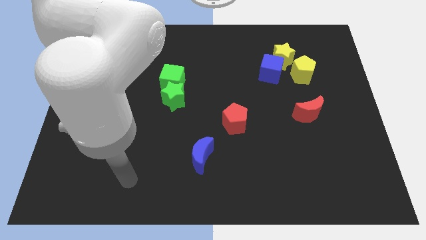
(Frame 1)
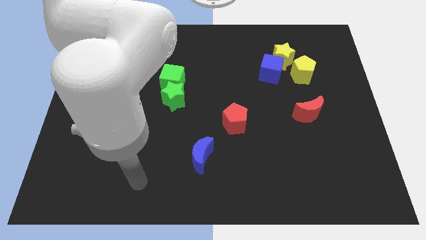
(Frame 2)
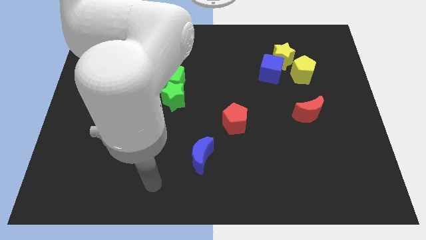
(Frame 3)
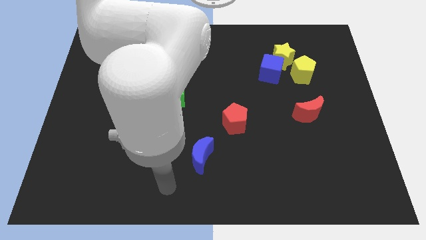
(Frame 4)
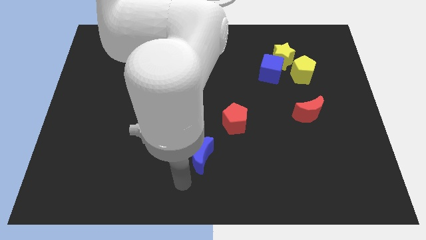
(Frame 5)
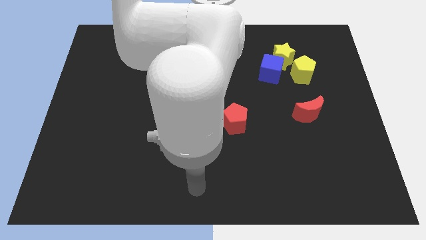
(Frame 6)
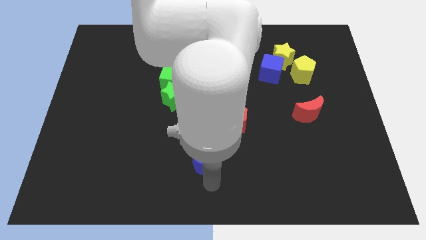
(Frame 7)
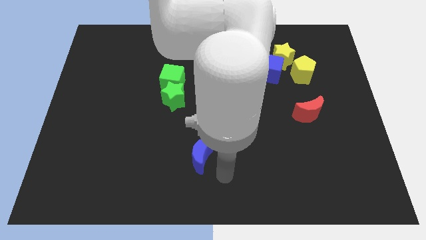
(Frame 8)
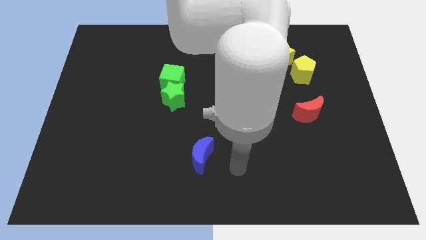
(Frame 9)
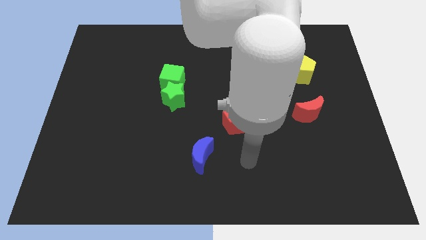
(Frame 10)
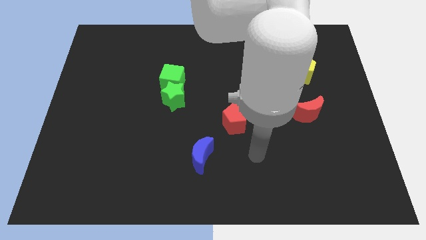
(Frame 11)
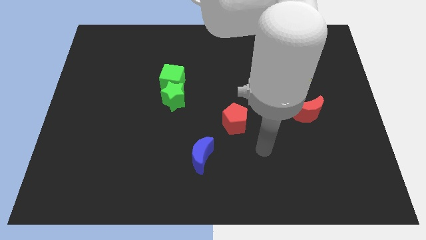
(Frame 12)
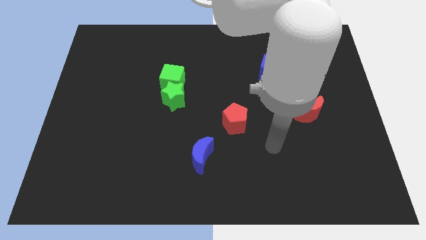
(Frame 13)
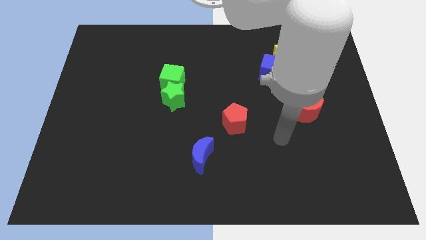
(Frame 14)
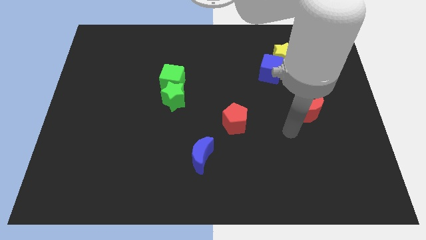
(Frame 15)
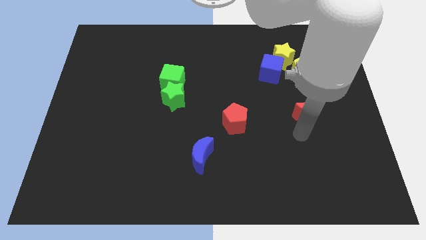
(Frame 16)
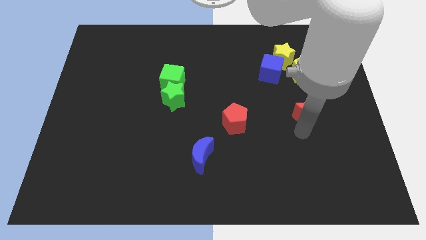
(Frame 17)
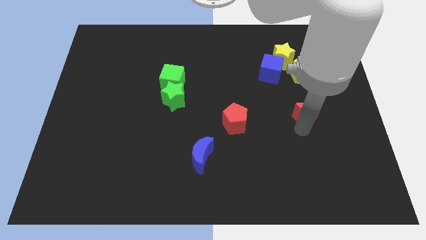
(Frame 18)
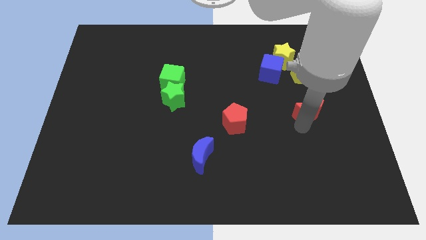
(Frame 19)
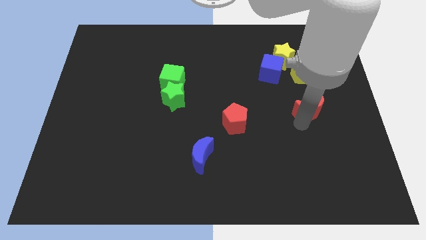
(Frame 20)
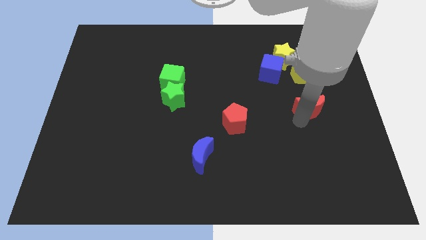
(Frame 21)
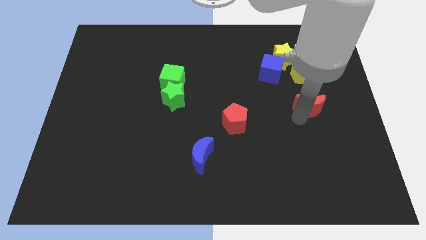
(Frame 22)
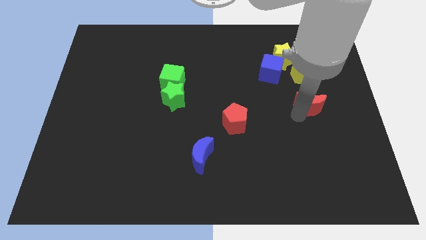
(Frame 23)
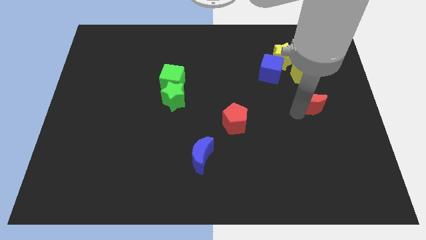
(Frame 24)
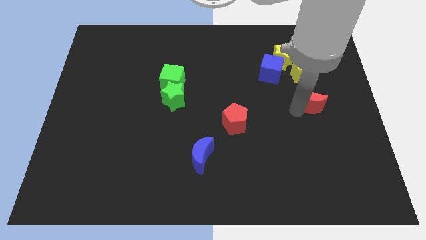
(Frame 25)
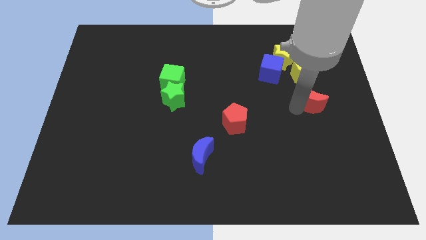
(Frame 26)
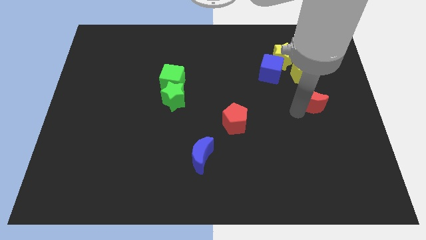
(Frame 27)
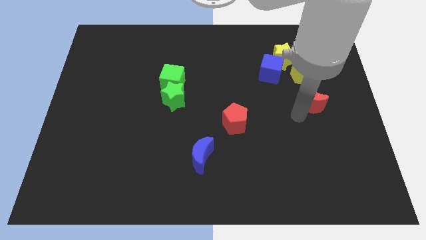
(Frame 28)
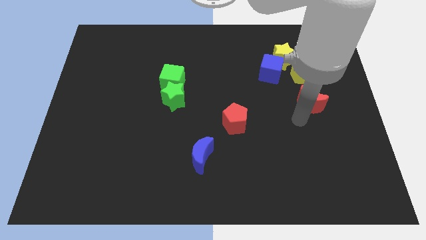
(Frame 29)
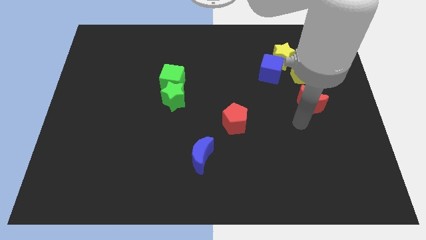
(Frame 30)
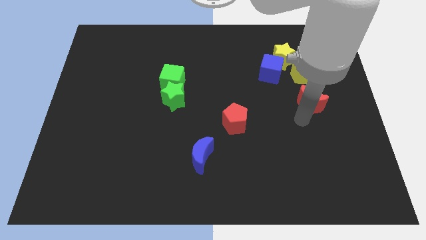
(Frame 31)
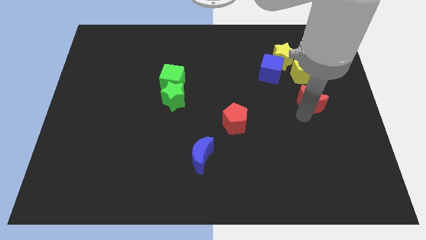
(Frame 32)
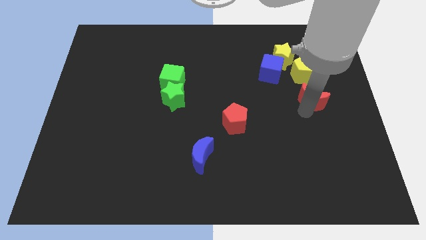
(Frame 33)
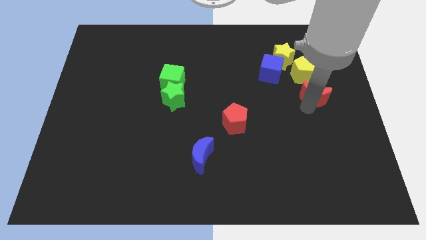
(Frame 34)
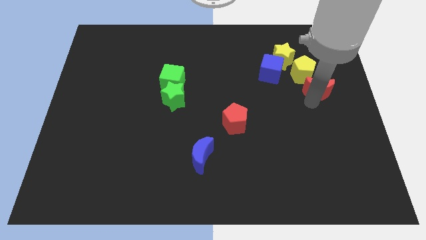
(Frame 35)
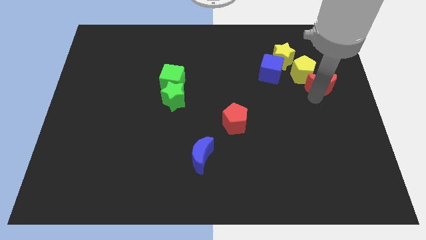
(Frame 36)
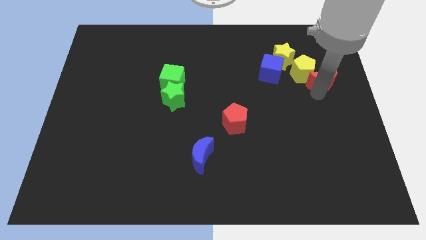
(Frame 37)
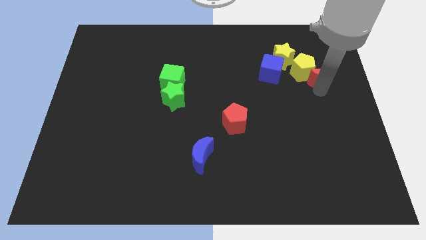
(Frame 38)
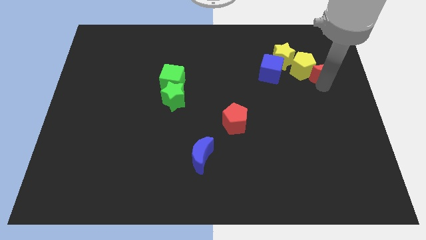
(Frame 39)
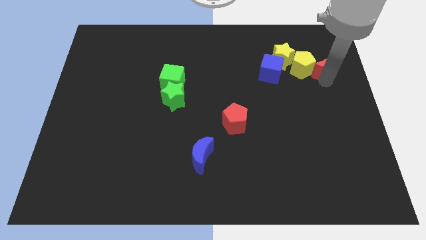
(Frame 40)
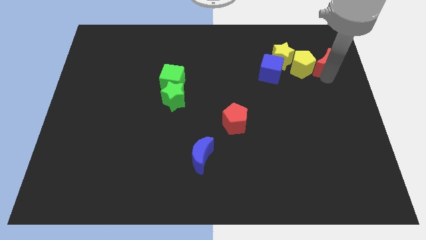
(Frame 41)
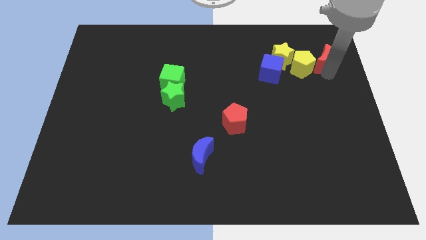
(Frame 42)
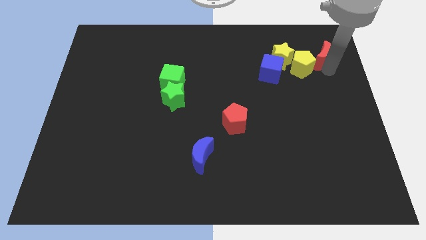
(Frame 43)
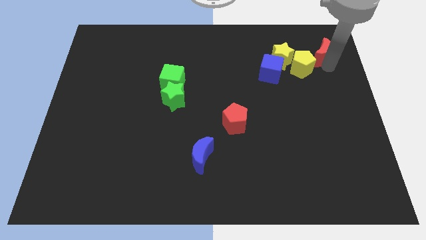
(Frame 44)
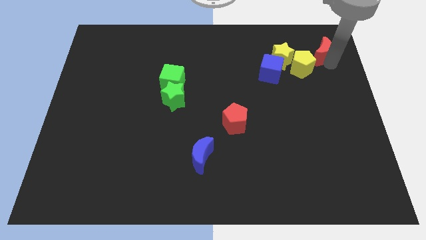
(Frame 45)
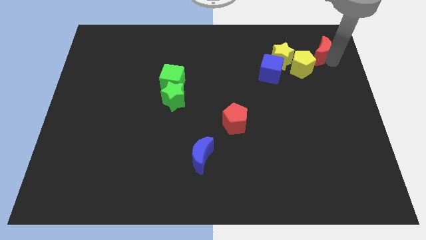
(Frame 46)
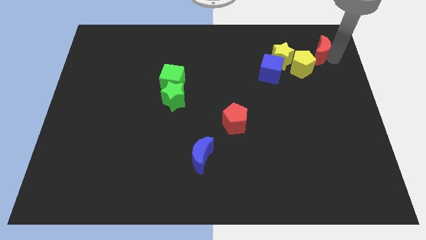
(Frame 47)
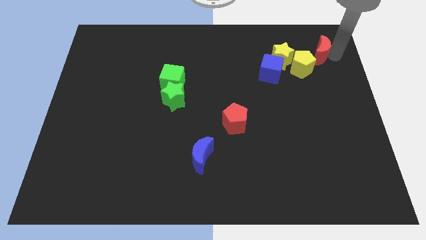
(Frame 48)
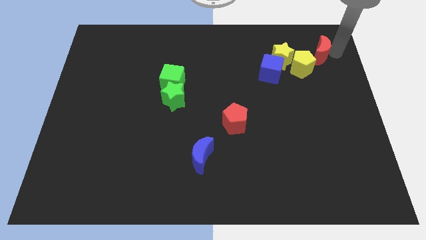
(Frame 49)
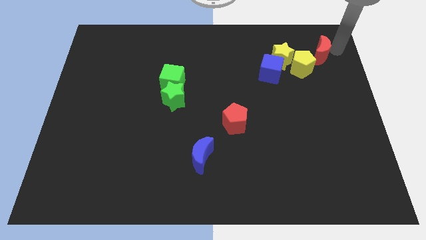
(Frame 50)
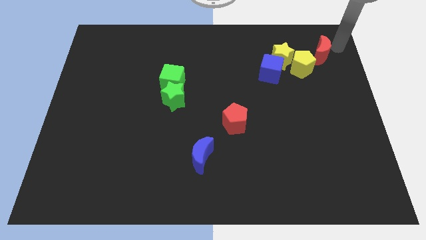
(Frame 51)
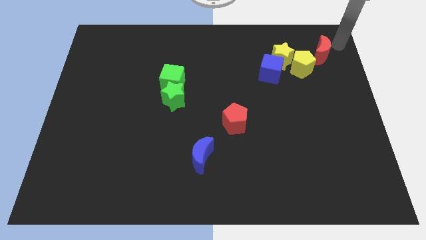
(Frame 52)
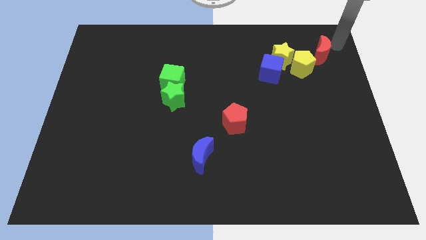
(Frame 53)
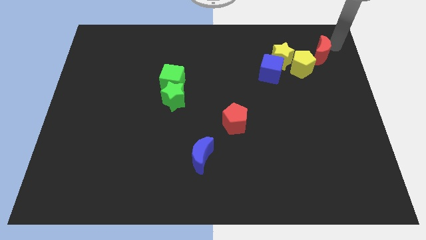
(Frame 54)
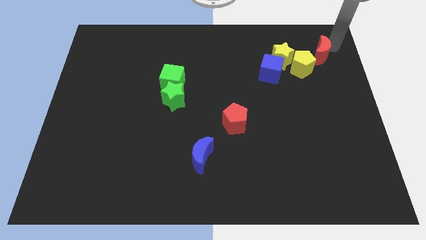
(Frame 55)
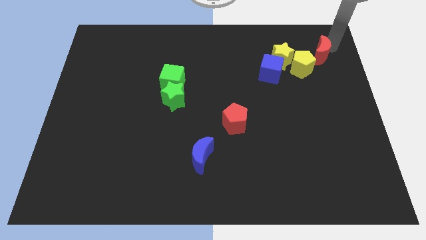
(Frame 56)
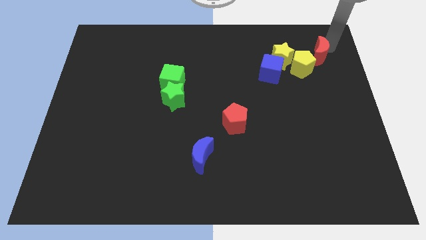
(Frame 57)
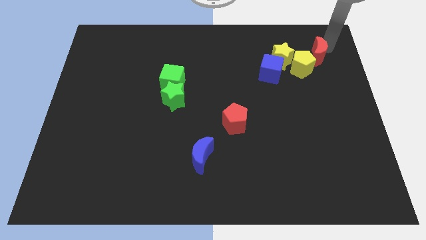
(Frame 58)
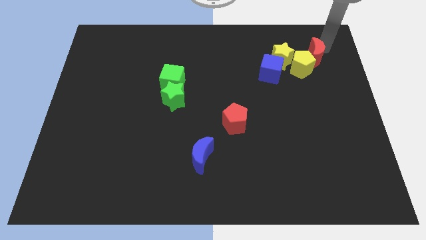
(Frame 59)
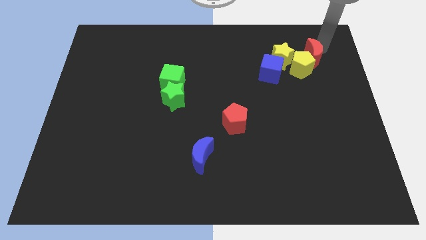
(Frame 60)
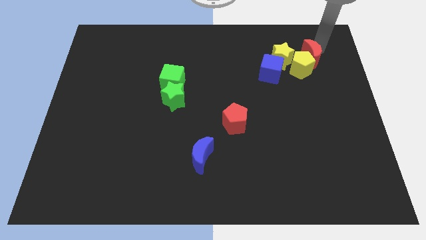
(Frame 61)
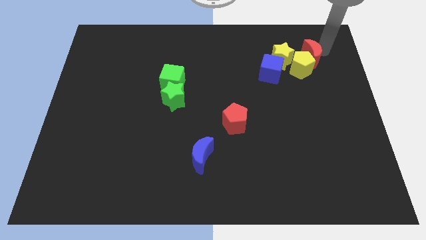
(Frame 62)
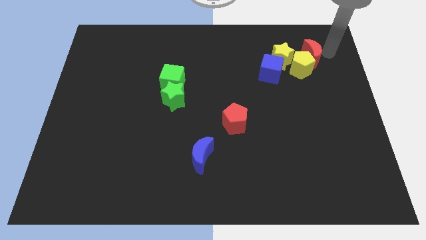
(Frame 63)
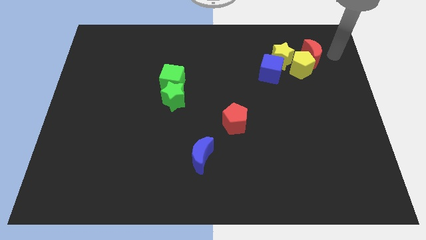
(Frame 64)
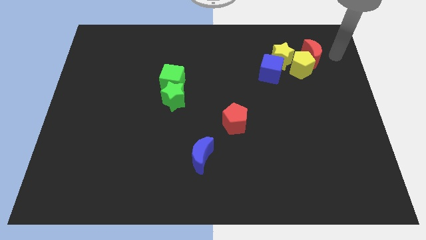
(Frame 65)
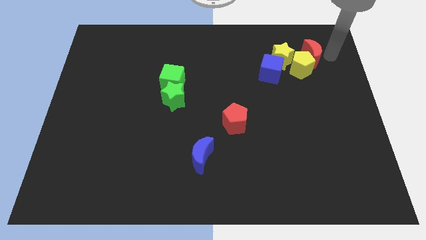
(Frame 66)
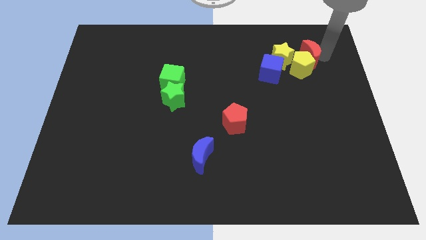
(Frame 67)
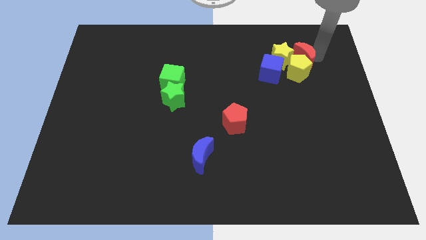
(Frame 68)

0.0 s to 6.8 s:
push the red moon to the top right of the blue cube
